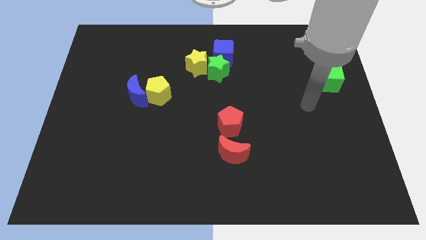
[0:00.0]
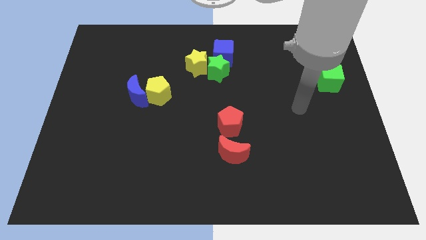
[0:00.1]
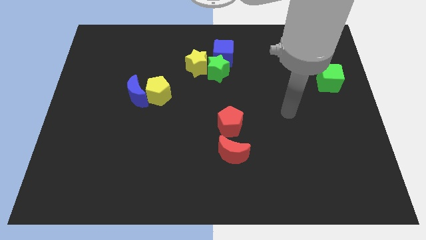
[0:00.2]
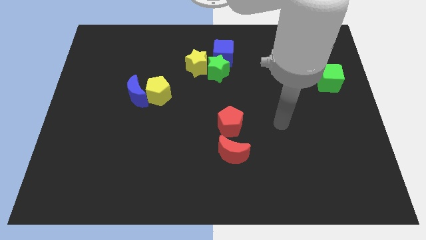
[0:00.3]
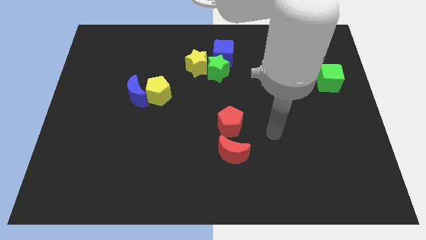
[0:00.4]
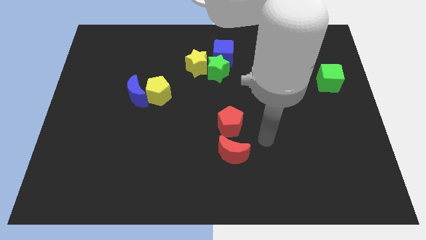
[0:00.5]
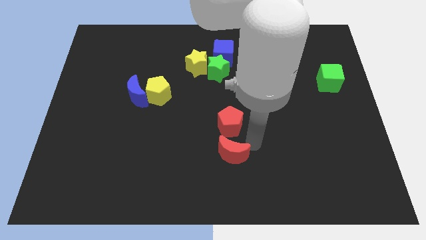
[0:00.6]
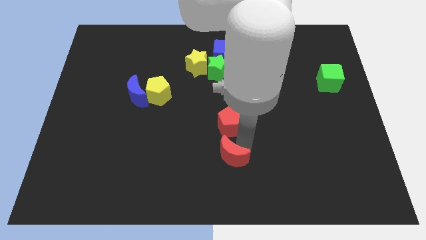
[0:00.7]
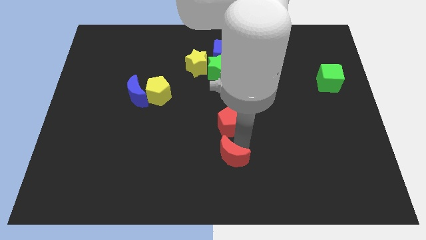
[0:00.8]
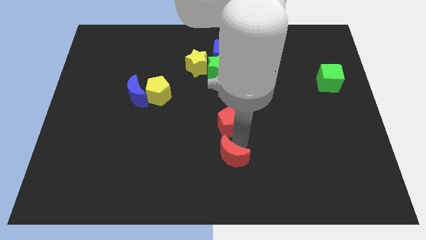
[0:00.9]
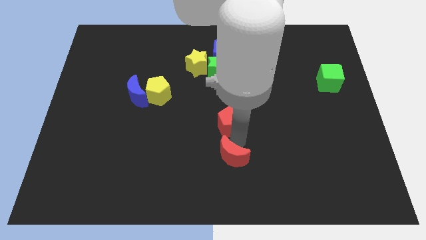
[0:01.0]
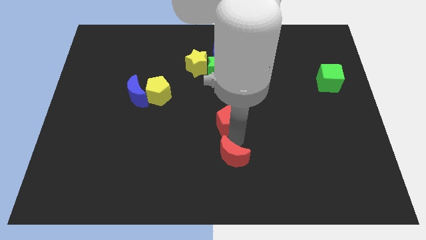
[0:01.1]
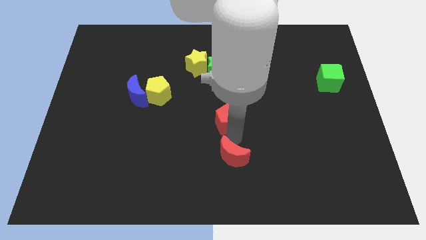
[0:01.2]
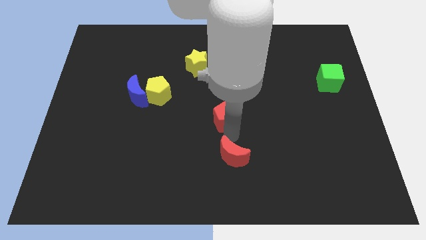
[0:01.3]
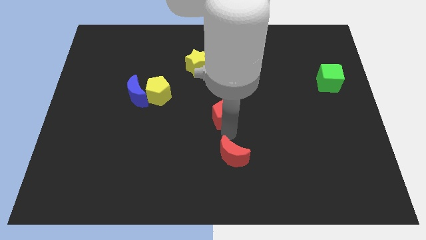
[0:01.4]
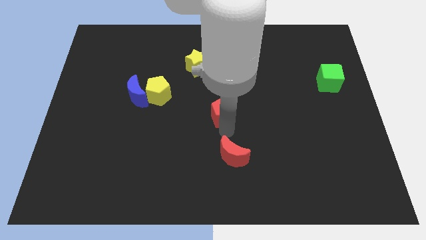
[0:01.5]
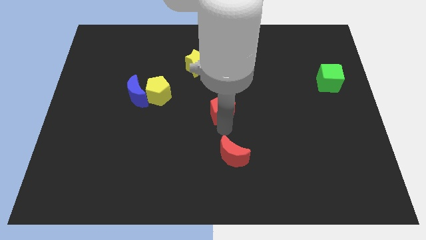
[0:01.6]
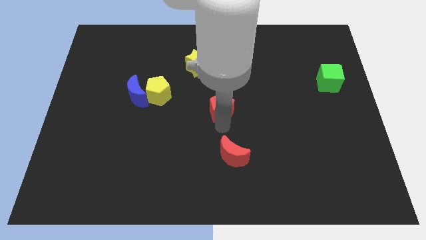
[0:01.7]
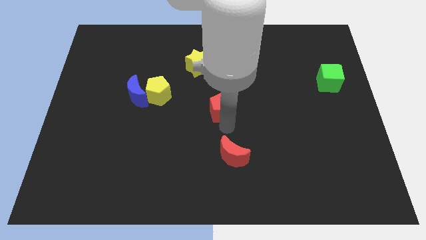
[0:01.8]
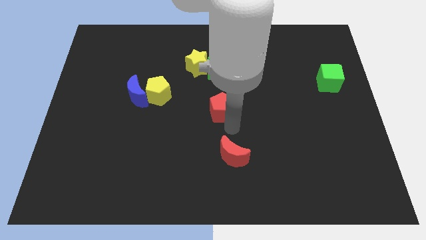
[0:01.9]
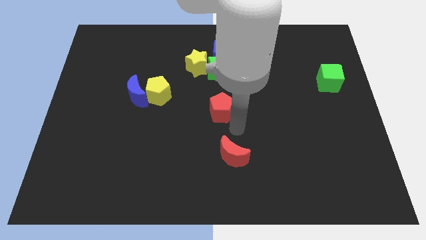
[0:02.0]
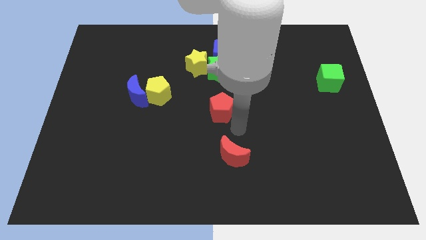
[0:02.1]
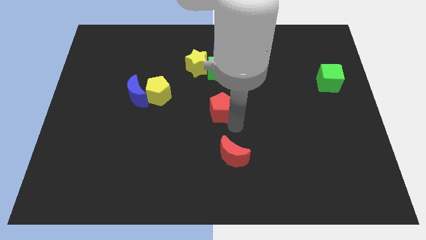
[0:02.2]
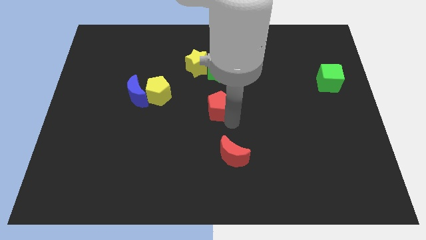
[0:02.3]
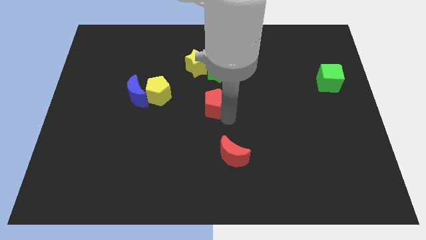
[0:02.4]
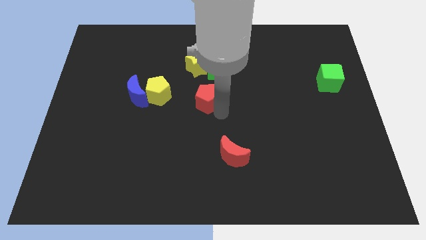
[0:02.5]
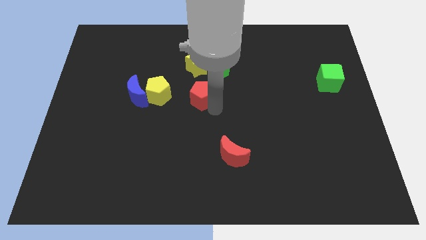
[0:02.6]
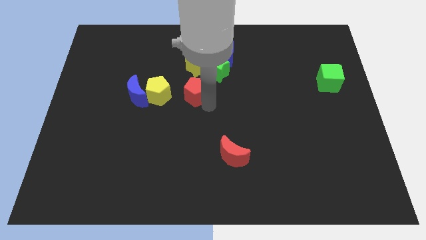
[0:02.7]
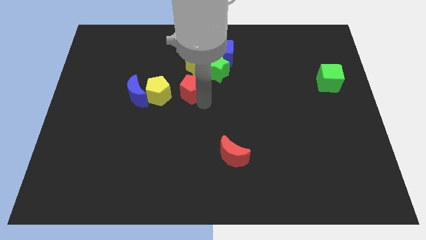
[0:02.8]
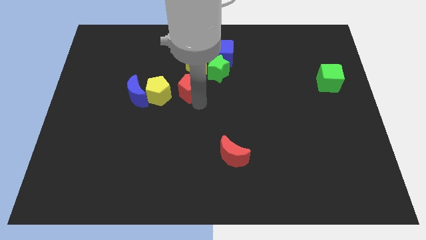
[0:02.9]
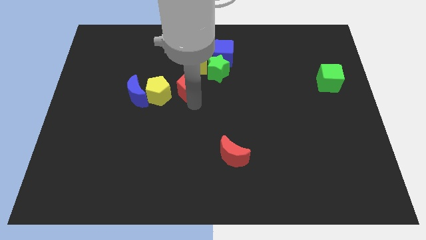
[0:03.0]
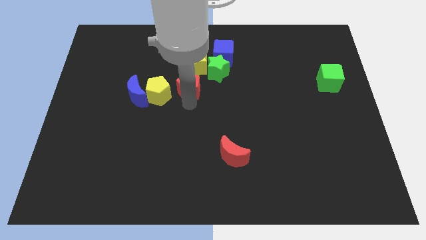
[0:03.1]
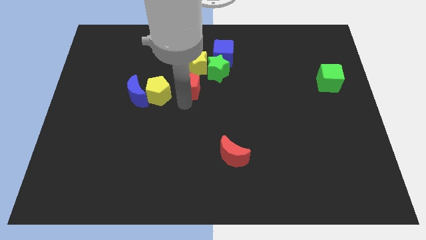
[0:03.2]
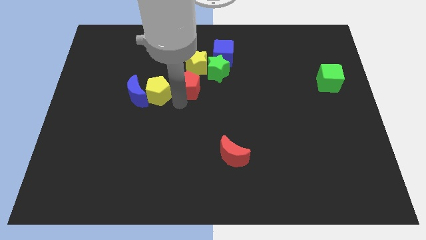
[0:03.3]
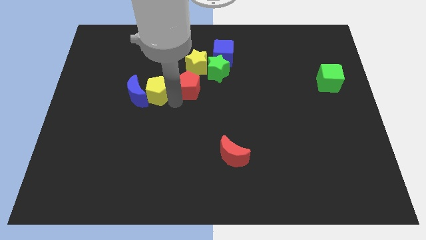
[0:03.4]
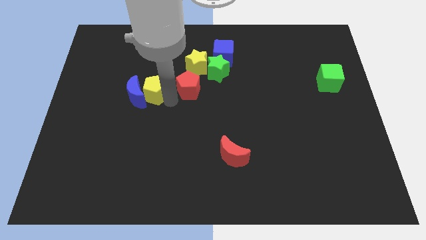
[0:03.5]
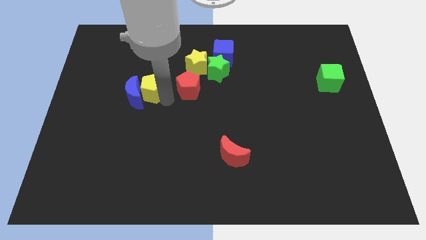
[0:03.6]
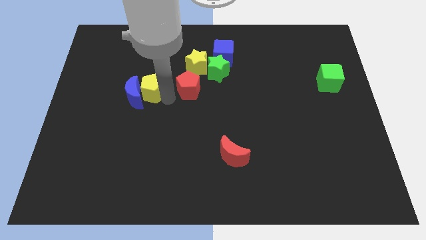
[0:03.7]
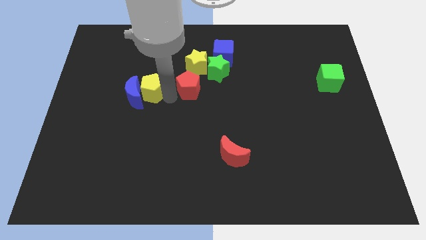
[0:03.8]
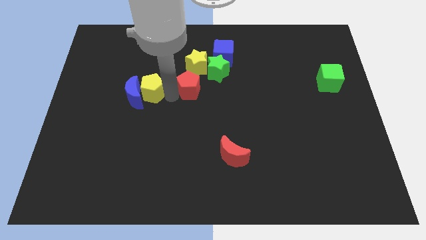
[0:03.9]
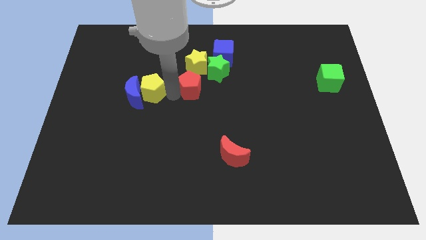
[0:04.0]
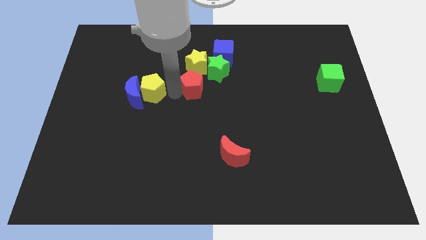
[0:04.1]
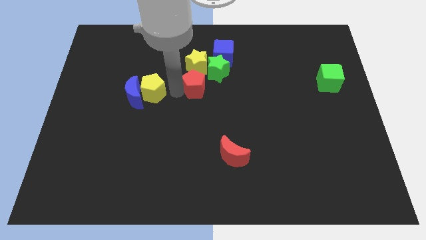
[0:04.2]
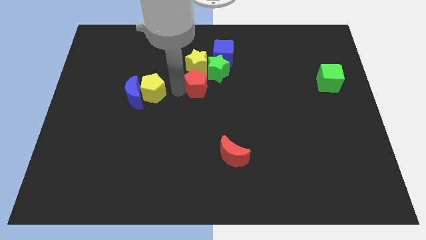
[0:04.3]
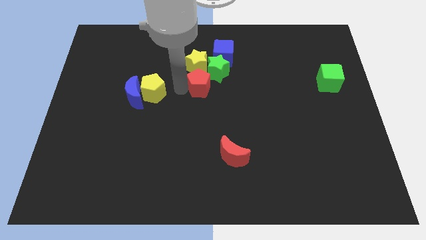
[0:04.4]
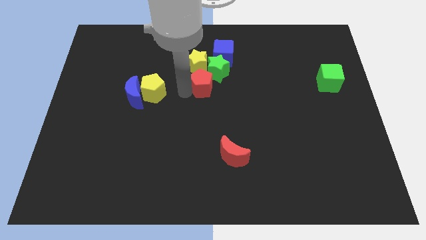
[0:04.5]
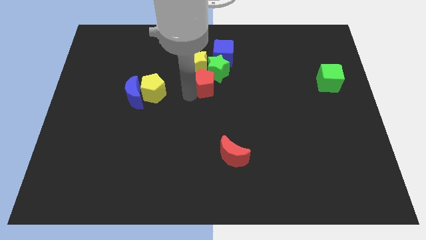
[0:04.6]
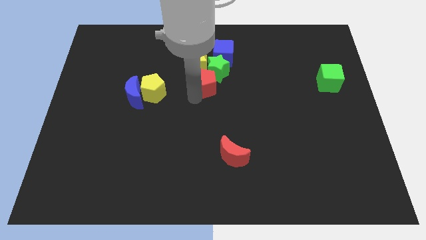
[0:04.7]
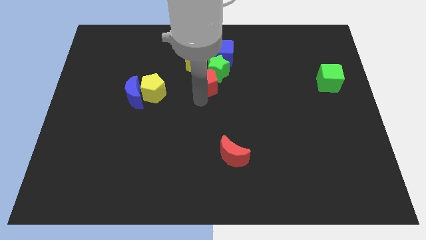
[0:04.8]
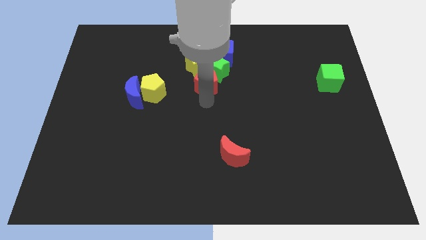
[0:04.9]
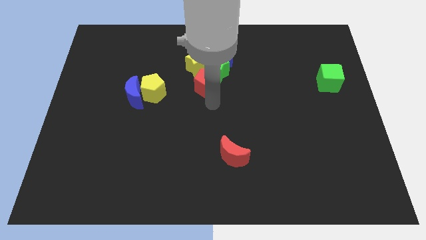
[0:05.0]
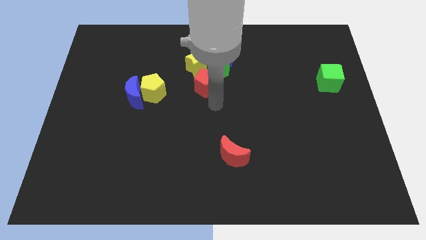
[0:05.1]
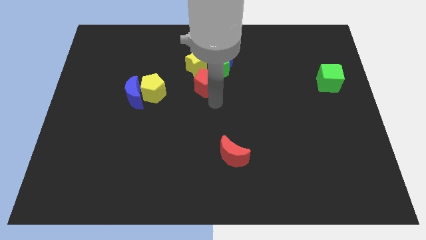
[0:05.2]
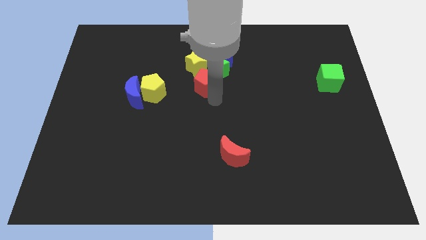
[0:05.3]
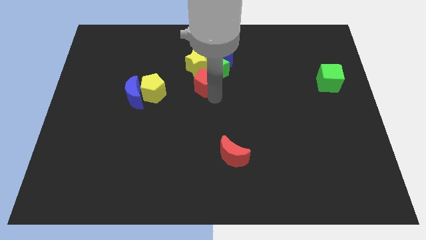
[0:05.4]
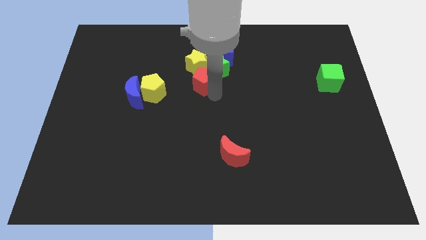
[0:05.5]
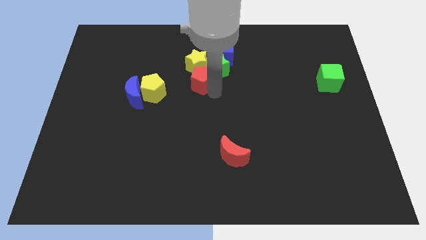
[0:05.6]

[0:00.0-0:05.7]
push the red pentagon to the yellow star

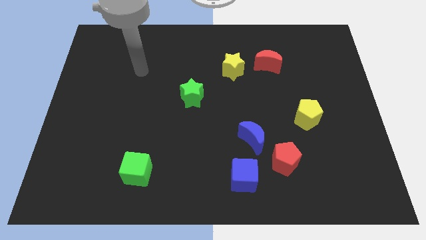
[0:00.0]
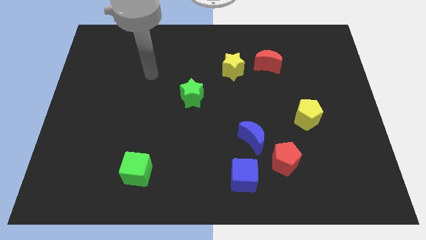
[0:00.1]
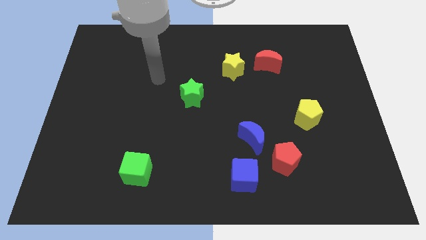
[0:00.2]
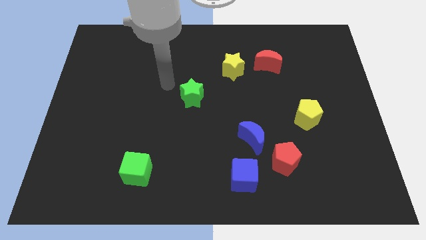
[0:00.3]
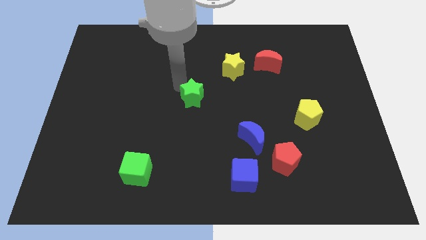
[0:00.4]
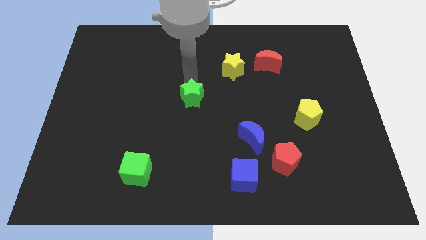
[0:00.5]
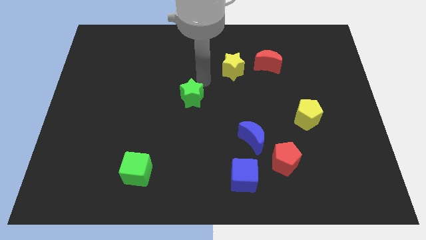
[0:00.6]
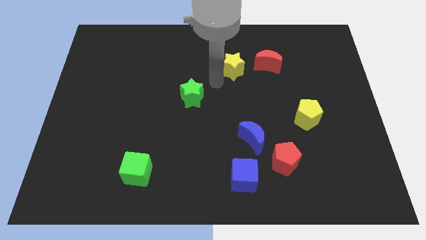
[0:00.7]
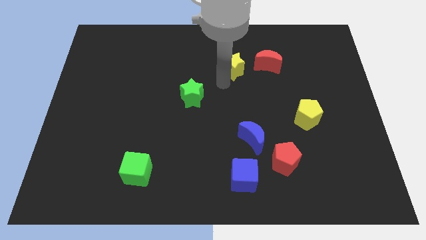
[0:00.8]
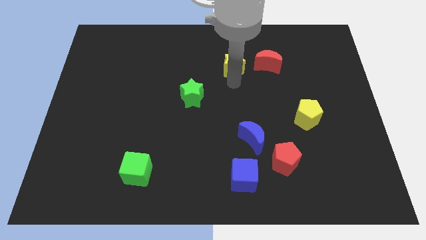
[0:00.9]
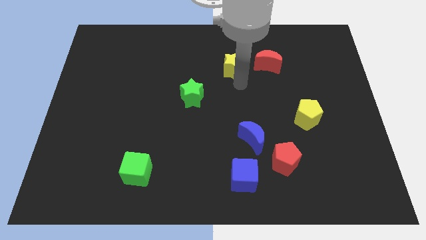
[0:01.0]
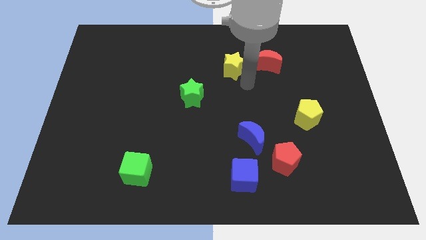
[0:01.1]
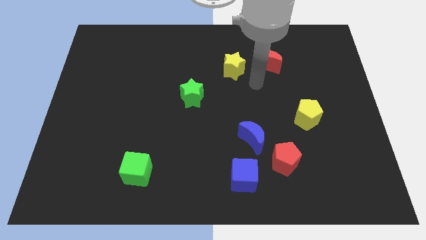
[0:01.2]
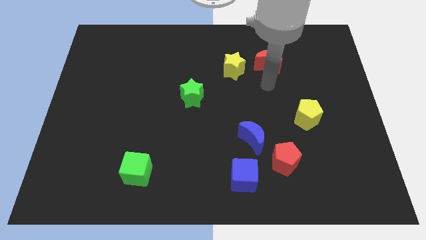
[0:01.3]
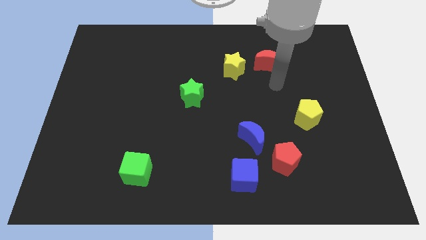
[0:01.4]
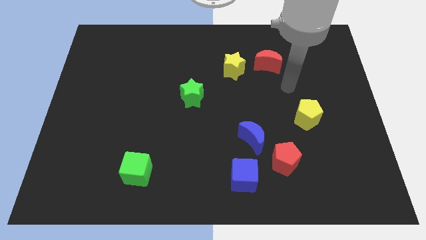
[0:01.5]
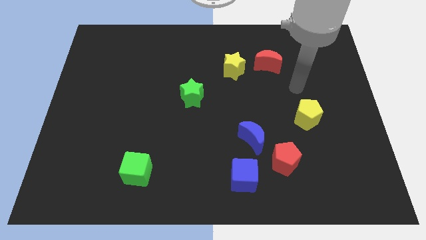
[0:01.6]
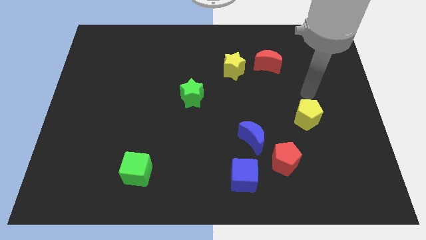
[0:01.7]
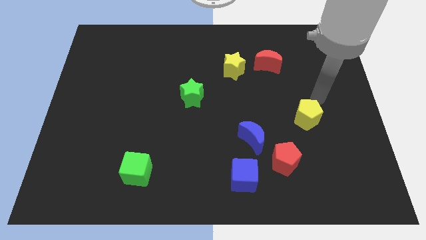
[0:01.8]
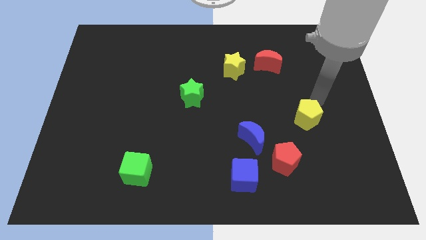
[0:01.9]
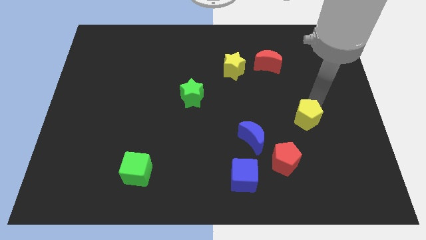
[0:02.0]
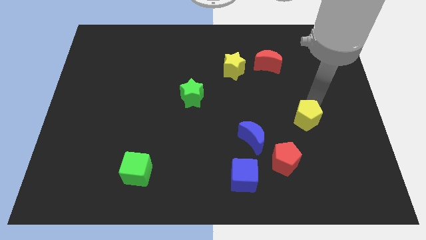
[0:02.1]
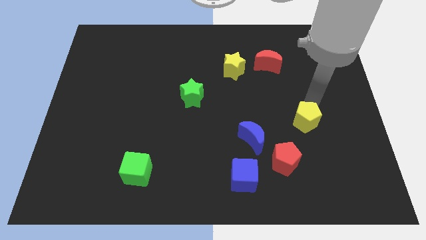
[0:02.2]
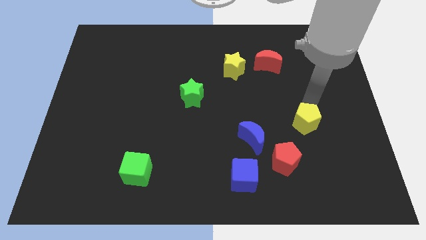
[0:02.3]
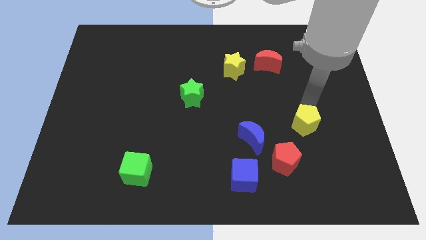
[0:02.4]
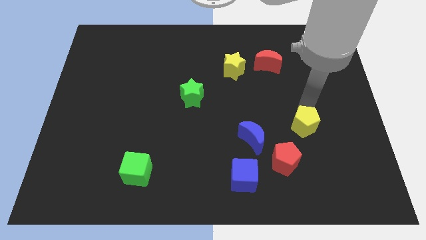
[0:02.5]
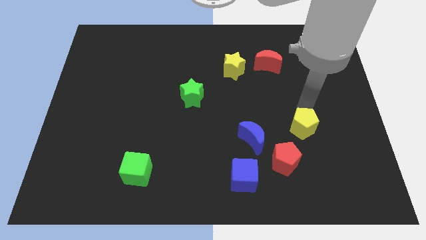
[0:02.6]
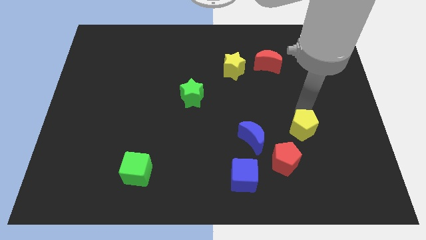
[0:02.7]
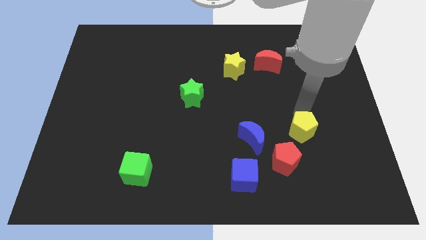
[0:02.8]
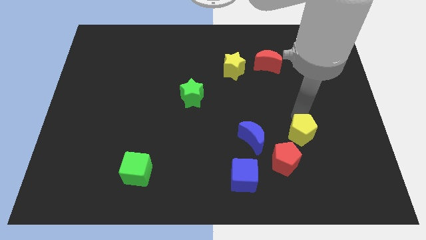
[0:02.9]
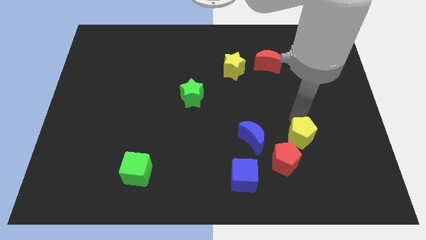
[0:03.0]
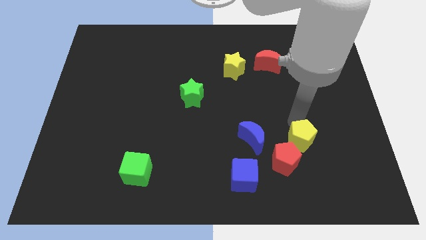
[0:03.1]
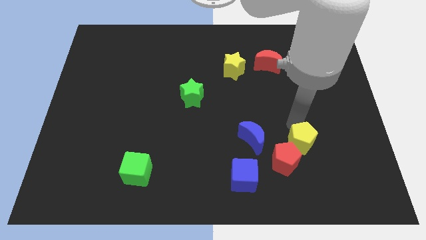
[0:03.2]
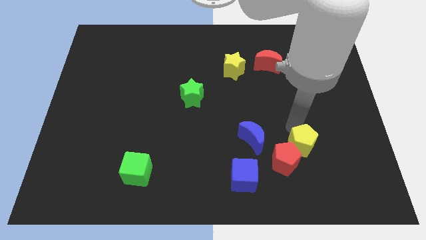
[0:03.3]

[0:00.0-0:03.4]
move the yellow pentagon close to the red pentagon
